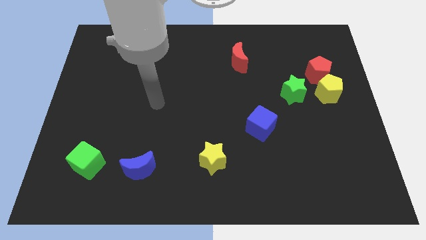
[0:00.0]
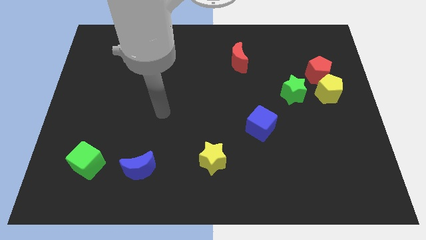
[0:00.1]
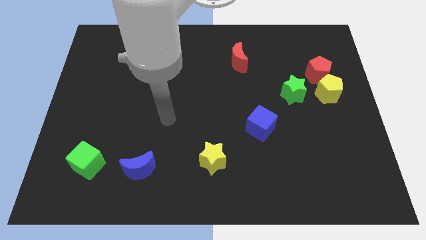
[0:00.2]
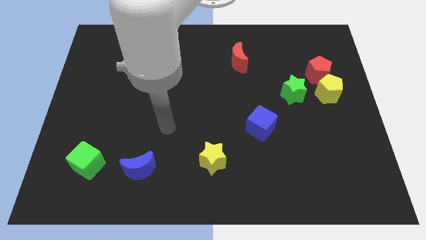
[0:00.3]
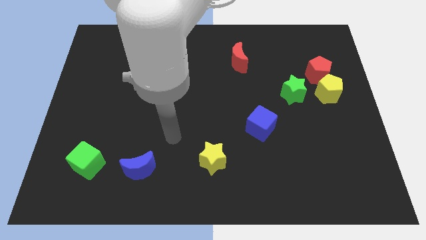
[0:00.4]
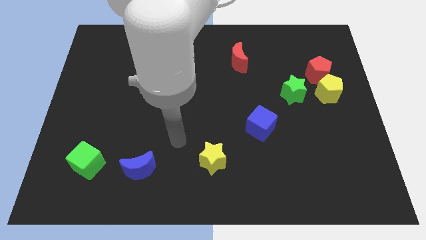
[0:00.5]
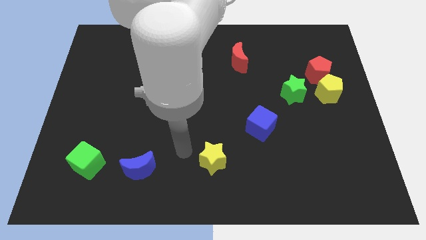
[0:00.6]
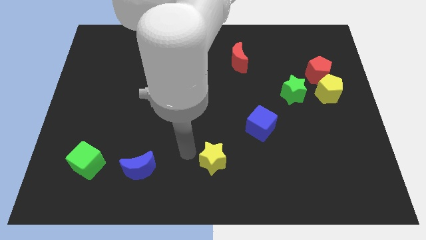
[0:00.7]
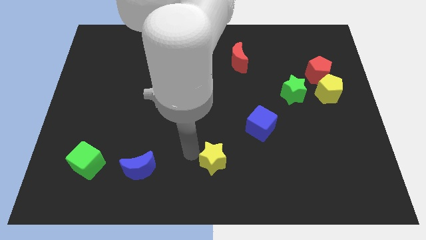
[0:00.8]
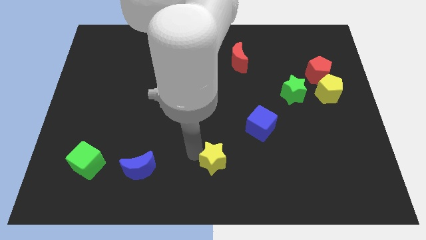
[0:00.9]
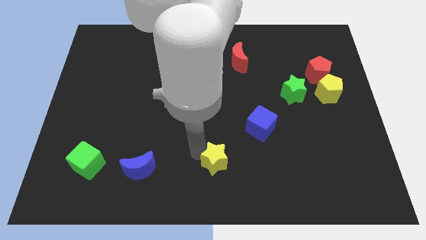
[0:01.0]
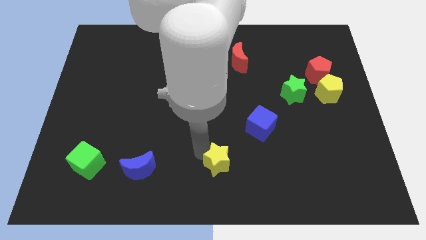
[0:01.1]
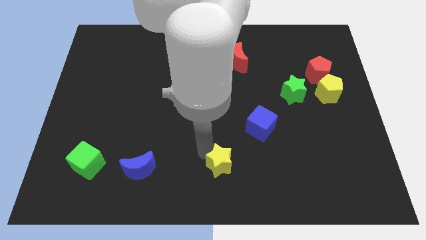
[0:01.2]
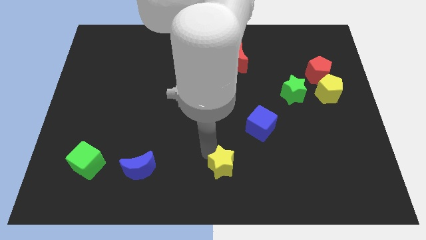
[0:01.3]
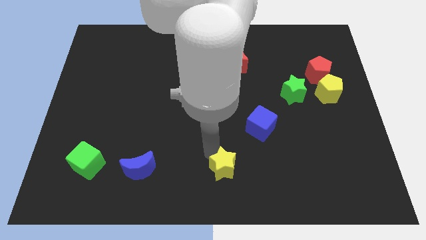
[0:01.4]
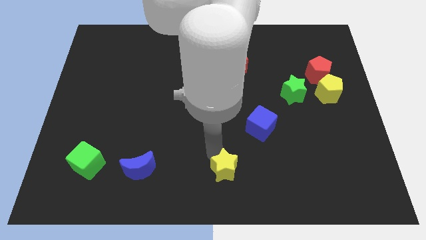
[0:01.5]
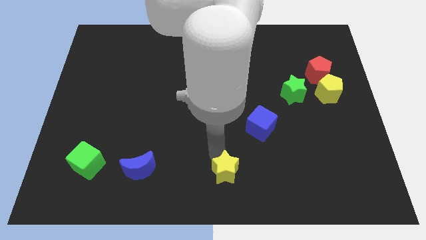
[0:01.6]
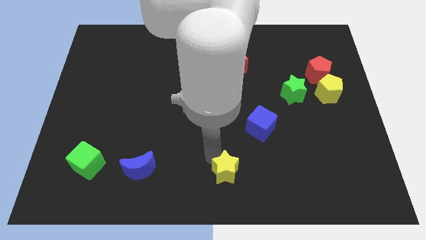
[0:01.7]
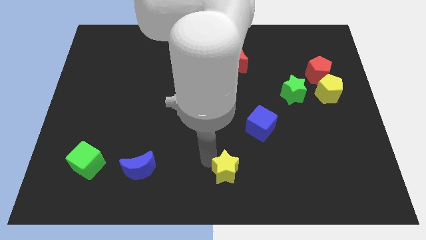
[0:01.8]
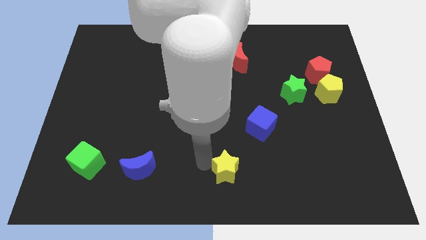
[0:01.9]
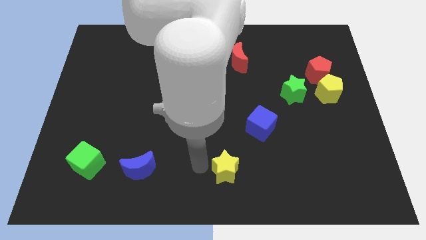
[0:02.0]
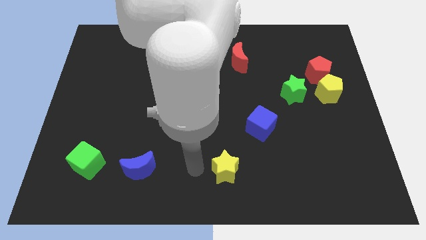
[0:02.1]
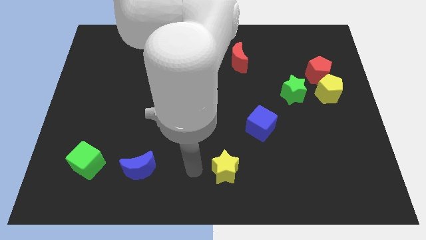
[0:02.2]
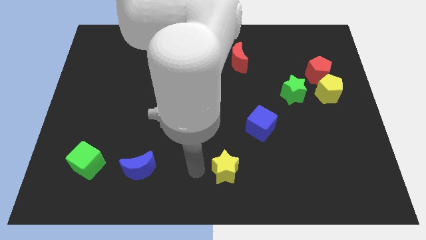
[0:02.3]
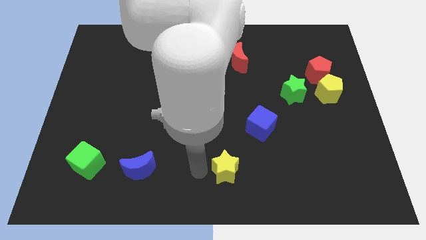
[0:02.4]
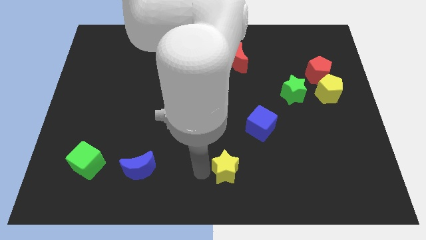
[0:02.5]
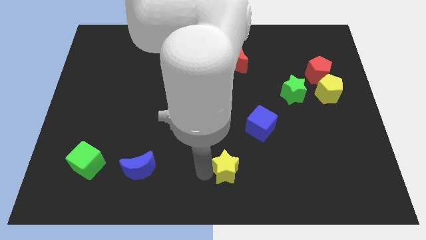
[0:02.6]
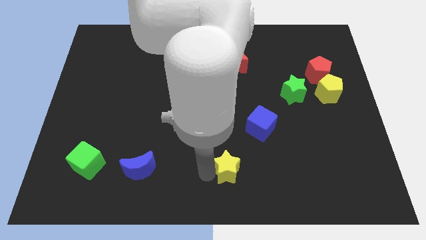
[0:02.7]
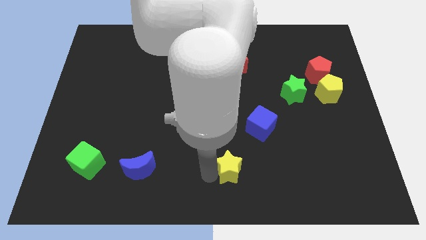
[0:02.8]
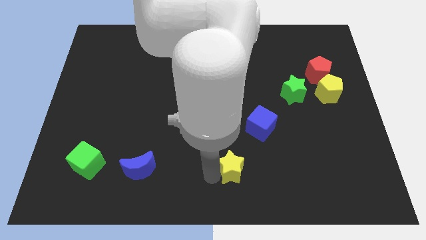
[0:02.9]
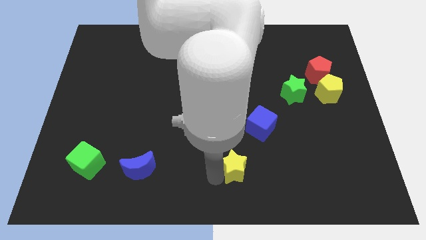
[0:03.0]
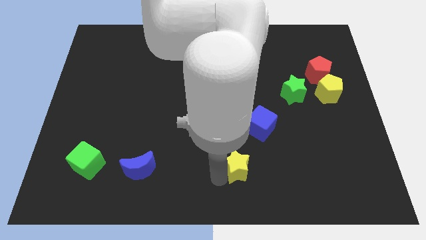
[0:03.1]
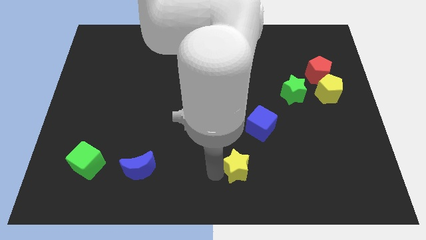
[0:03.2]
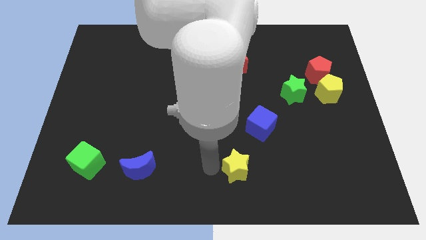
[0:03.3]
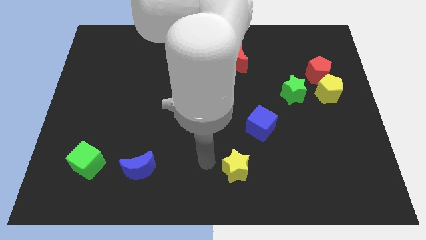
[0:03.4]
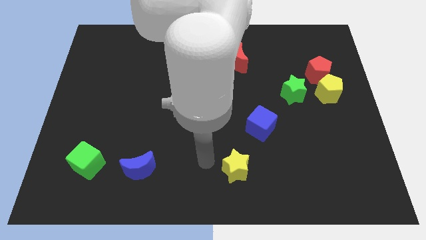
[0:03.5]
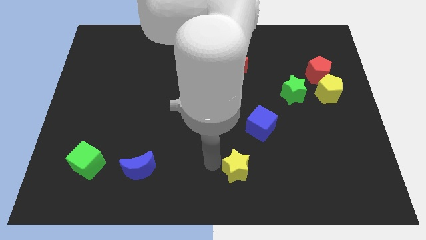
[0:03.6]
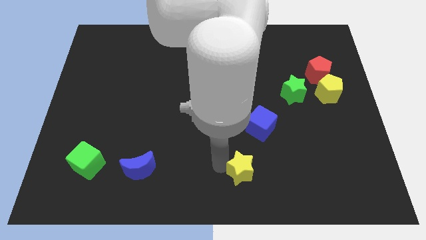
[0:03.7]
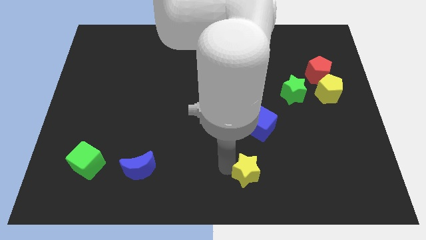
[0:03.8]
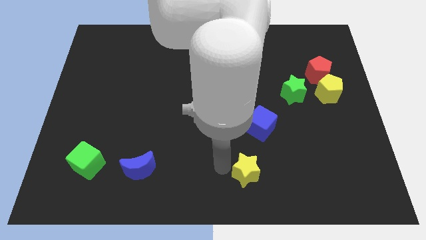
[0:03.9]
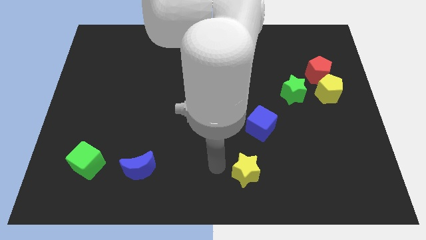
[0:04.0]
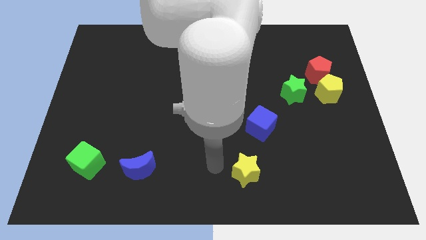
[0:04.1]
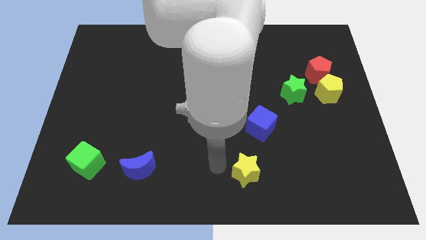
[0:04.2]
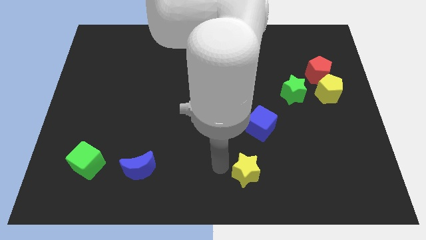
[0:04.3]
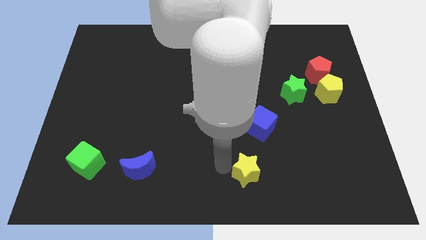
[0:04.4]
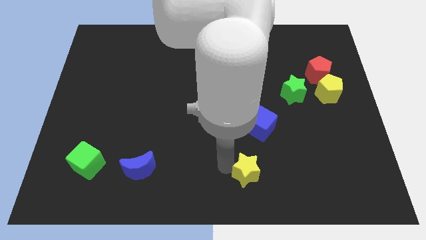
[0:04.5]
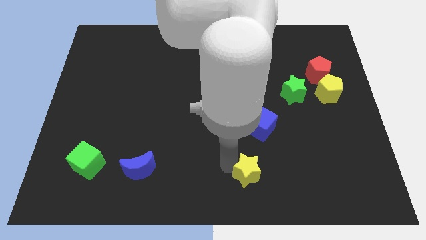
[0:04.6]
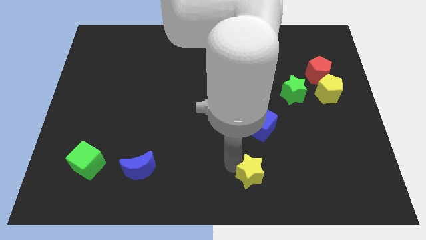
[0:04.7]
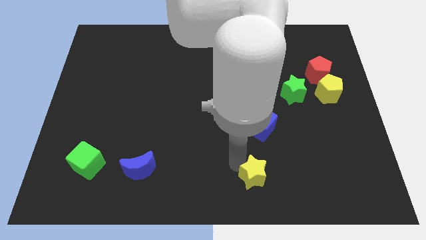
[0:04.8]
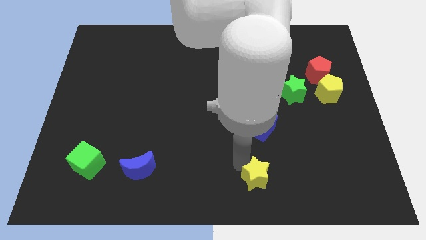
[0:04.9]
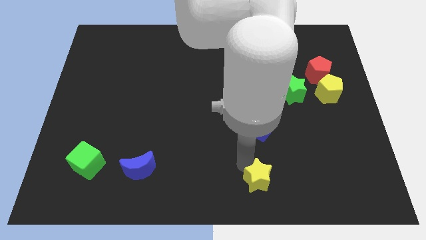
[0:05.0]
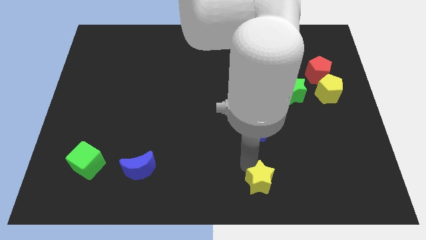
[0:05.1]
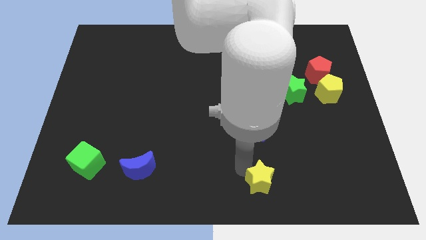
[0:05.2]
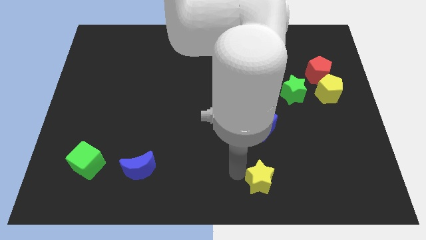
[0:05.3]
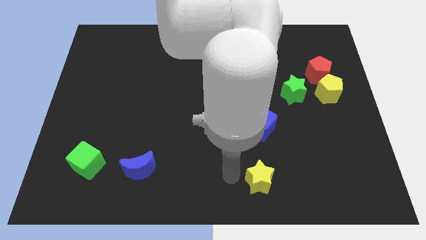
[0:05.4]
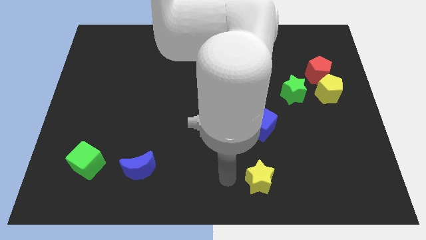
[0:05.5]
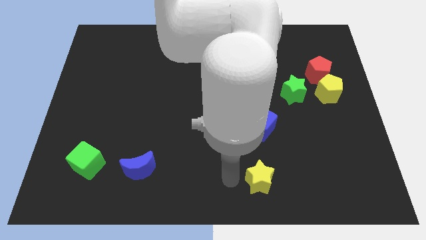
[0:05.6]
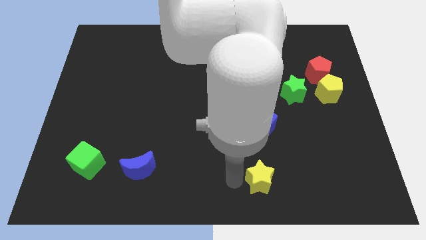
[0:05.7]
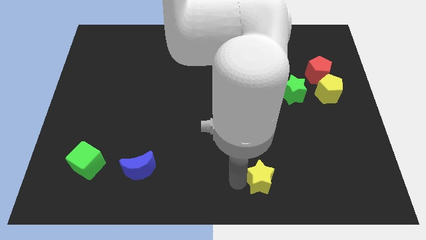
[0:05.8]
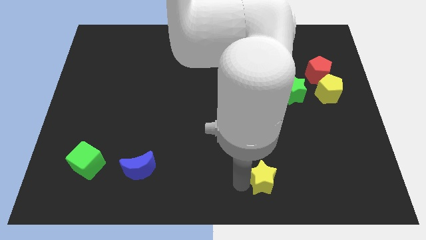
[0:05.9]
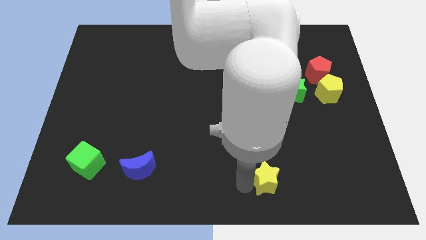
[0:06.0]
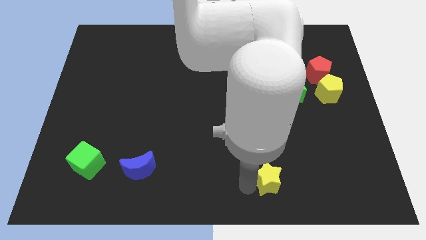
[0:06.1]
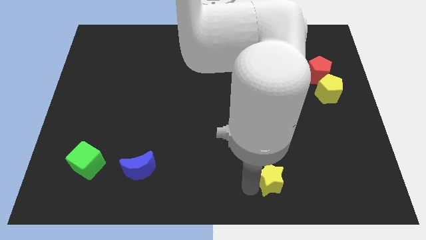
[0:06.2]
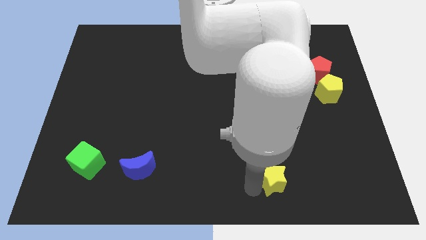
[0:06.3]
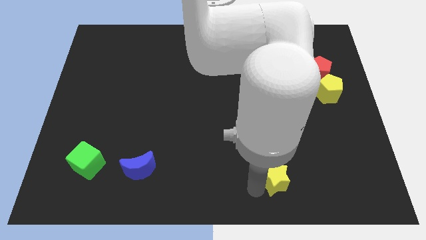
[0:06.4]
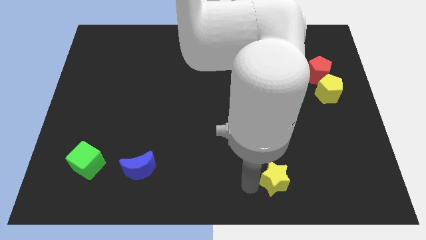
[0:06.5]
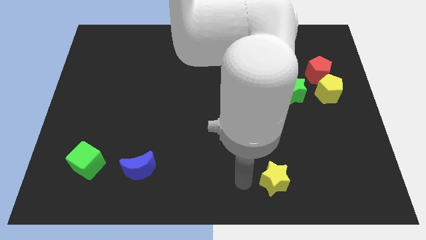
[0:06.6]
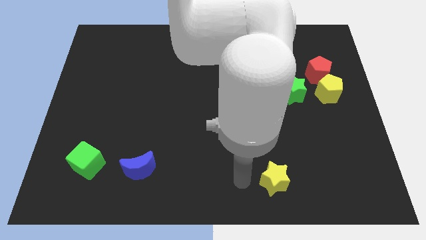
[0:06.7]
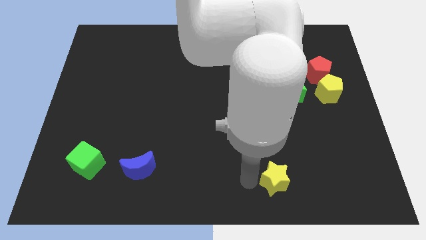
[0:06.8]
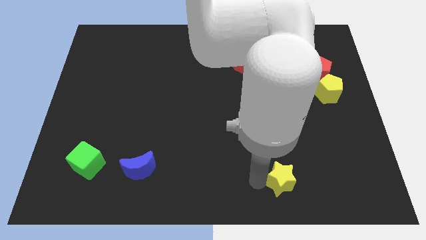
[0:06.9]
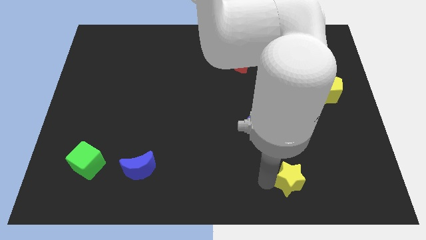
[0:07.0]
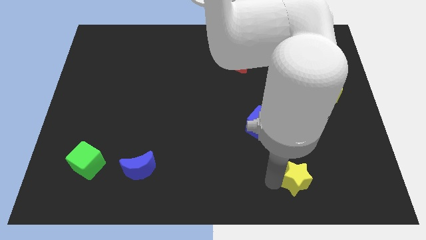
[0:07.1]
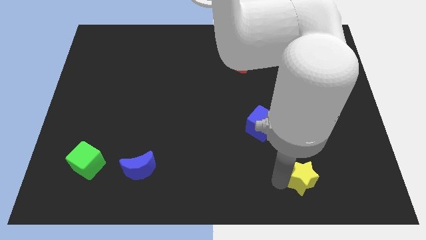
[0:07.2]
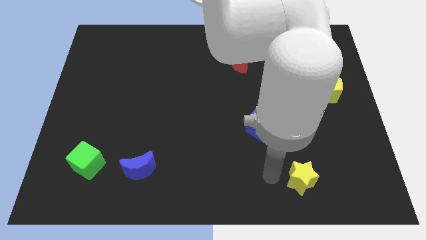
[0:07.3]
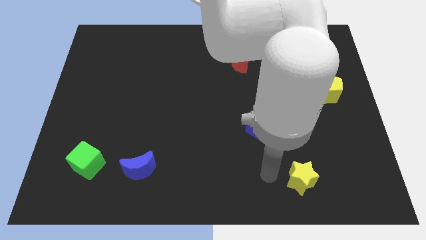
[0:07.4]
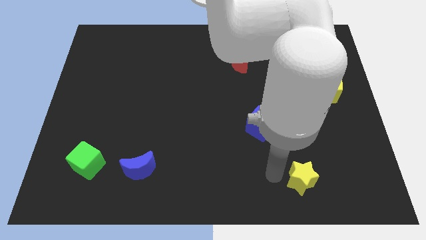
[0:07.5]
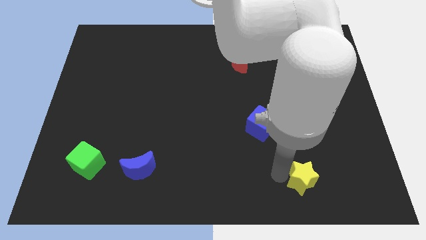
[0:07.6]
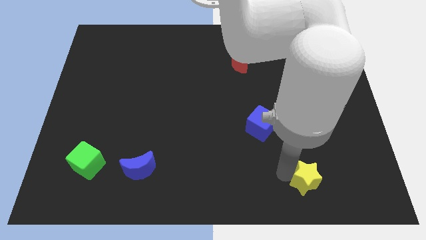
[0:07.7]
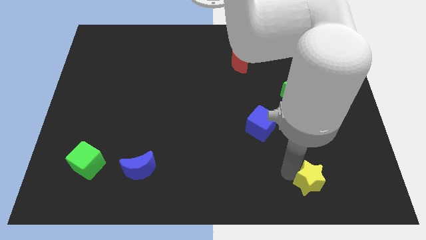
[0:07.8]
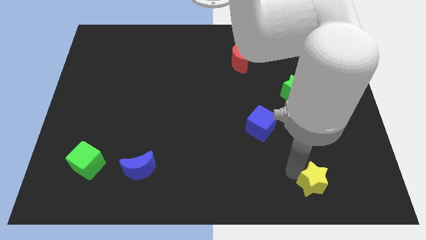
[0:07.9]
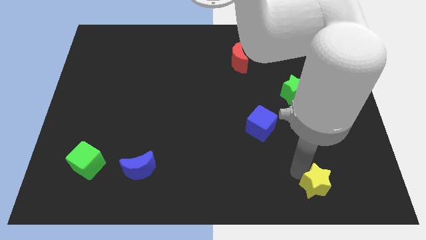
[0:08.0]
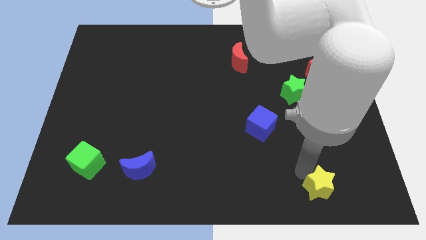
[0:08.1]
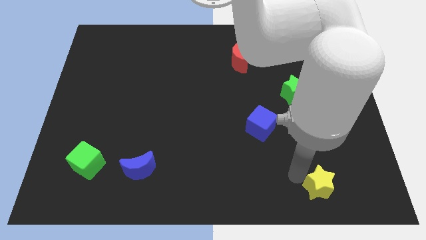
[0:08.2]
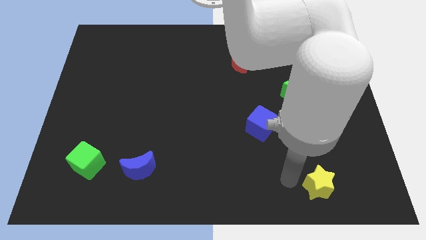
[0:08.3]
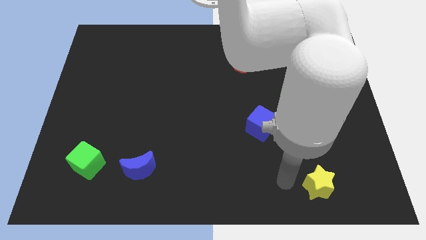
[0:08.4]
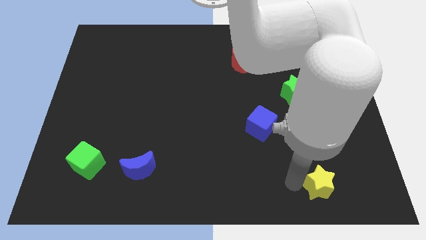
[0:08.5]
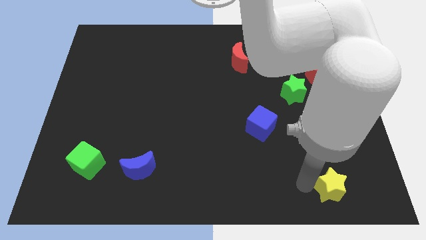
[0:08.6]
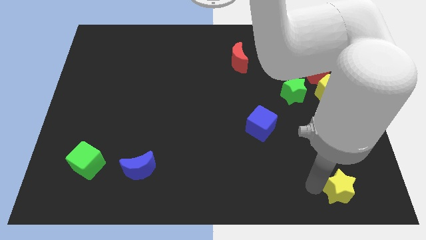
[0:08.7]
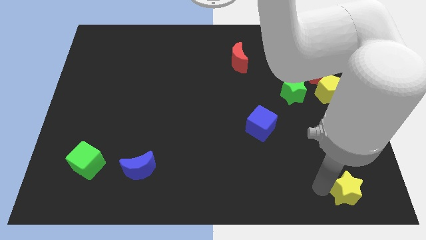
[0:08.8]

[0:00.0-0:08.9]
slide the yellow star to the lower right corner
